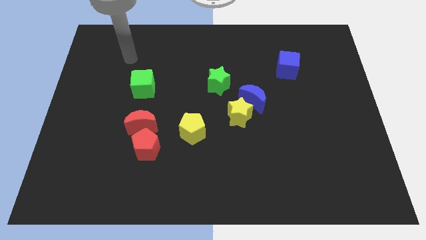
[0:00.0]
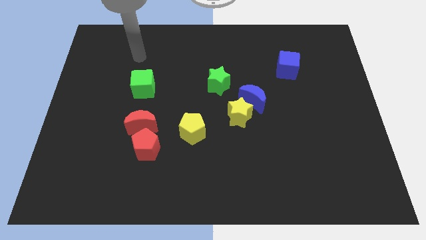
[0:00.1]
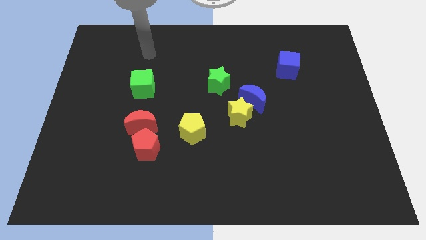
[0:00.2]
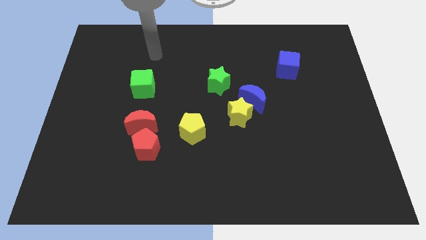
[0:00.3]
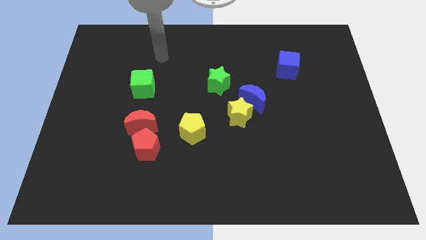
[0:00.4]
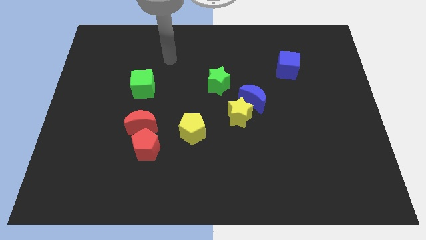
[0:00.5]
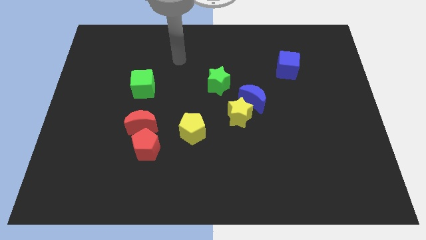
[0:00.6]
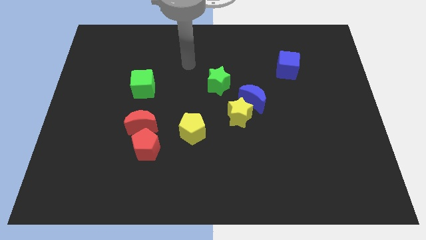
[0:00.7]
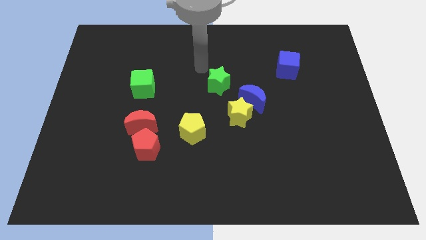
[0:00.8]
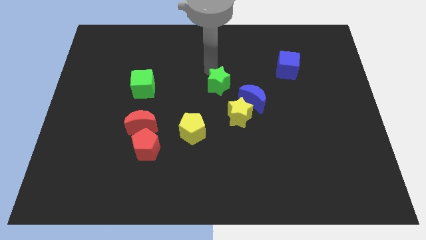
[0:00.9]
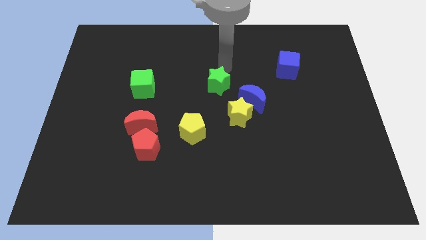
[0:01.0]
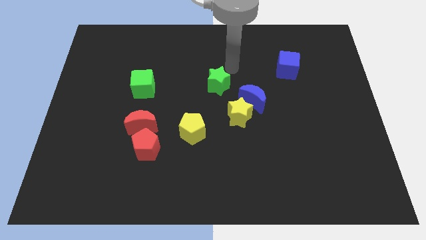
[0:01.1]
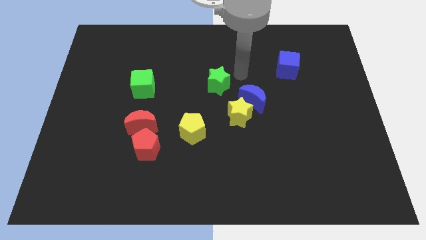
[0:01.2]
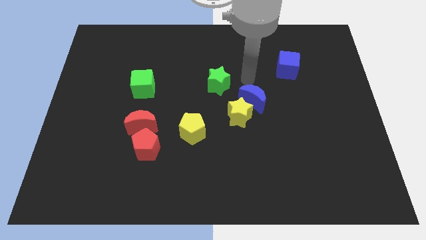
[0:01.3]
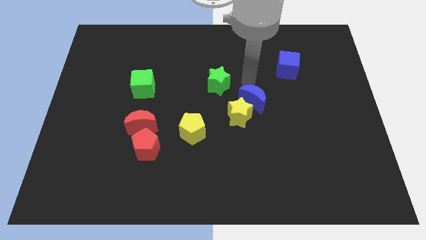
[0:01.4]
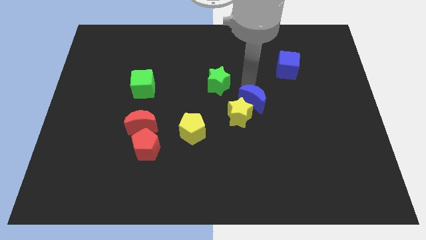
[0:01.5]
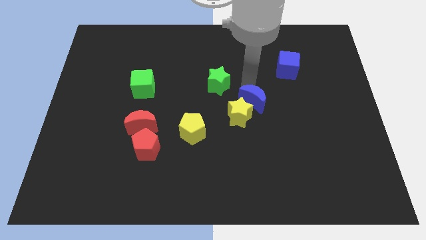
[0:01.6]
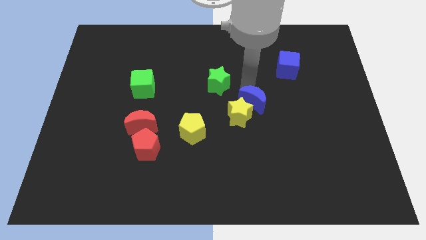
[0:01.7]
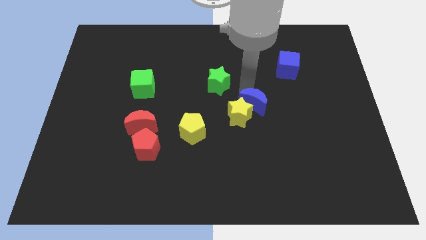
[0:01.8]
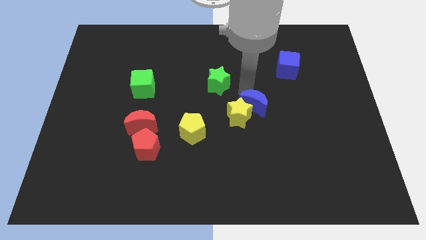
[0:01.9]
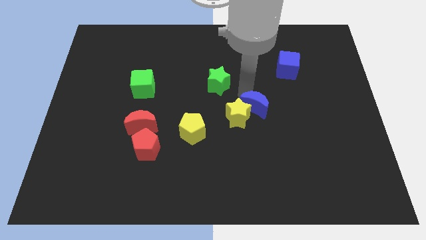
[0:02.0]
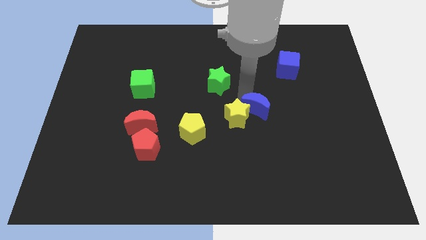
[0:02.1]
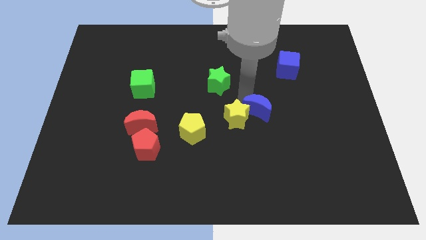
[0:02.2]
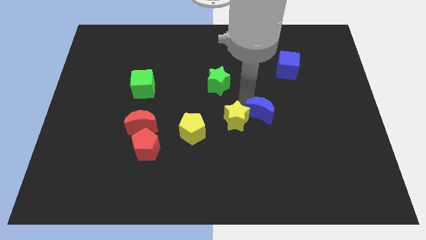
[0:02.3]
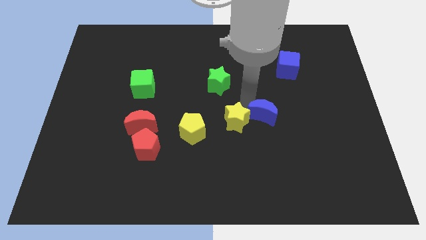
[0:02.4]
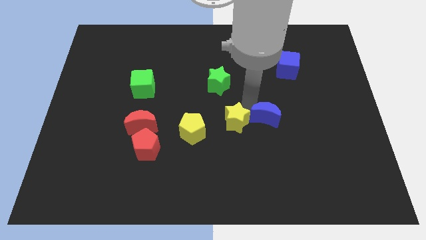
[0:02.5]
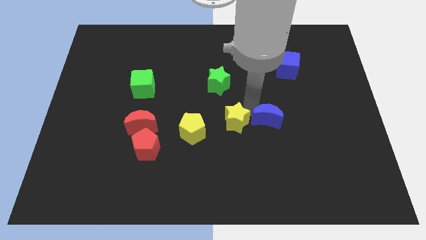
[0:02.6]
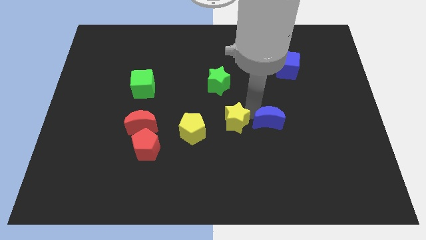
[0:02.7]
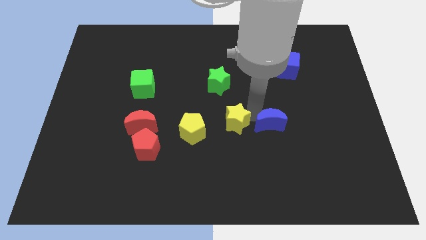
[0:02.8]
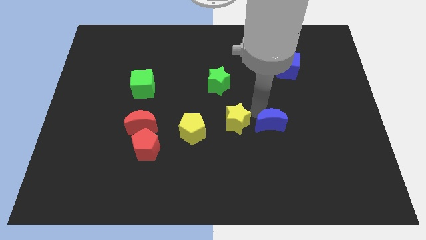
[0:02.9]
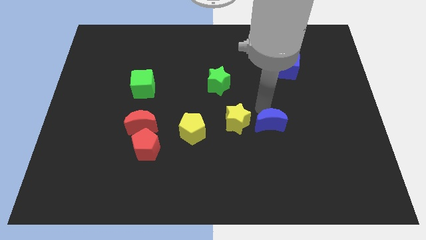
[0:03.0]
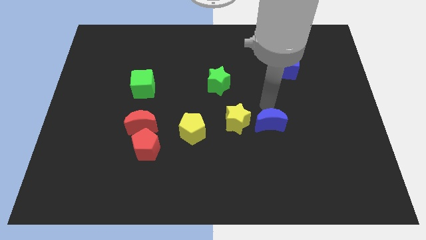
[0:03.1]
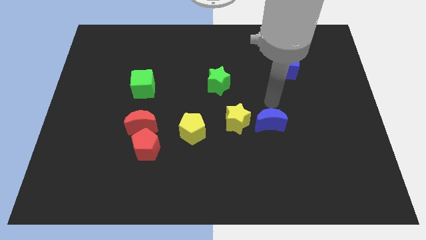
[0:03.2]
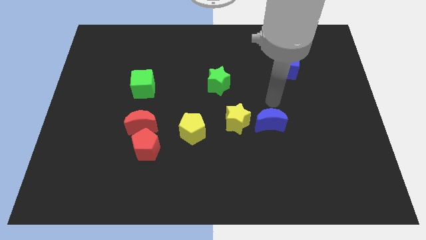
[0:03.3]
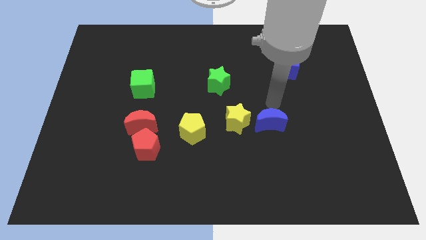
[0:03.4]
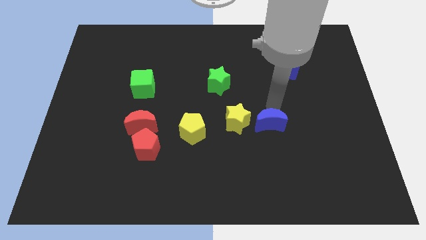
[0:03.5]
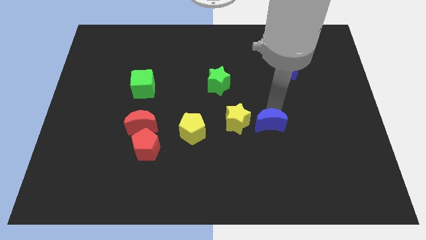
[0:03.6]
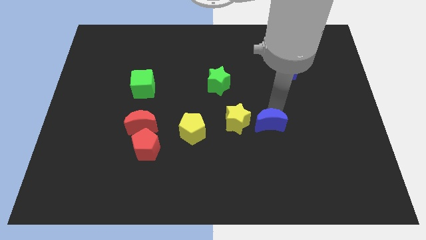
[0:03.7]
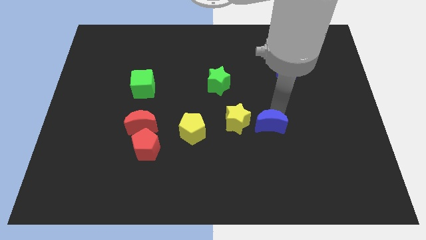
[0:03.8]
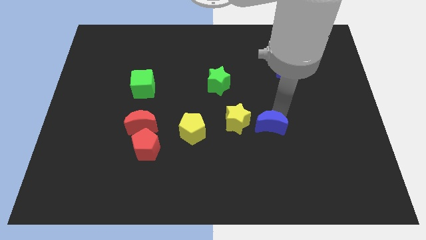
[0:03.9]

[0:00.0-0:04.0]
move the blue moon a little bit downwards

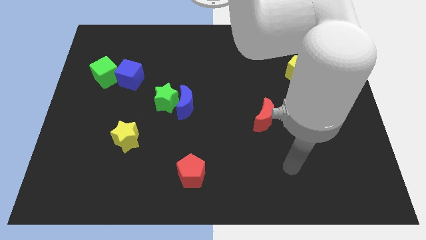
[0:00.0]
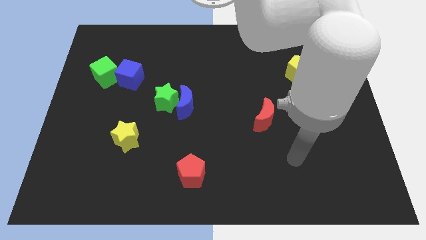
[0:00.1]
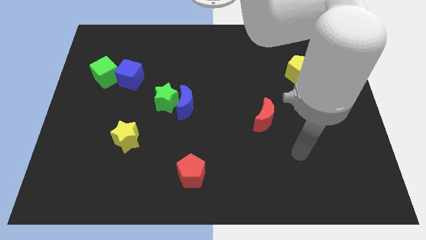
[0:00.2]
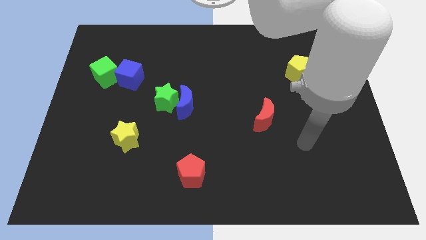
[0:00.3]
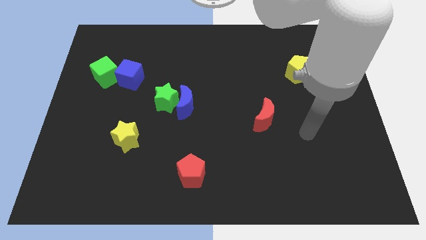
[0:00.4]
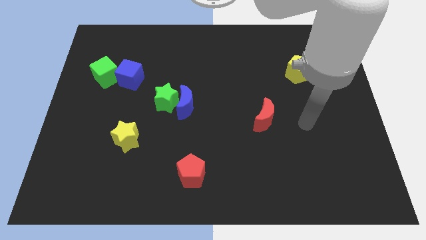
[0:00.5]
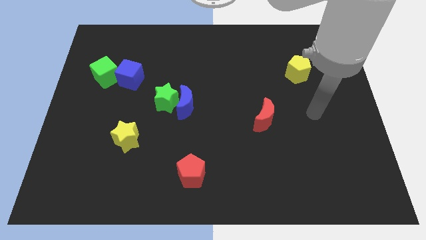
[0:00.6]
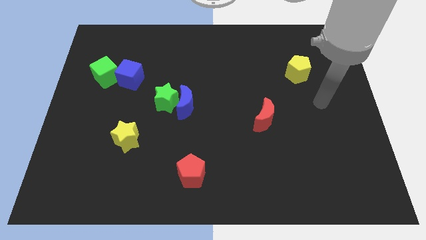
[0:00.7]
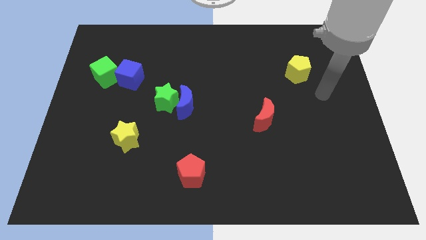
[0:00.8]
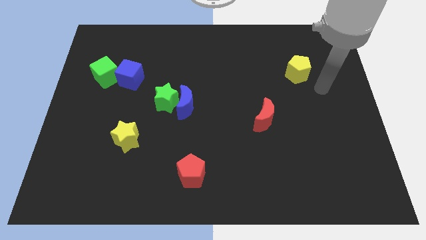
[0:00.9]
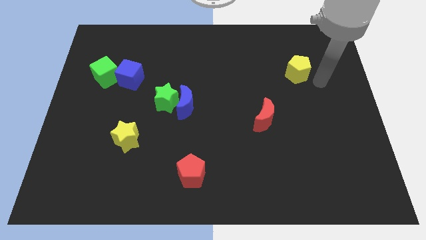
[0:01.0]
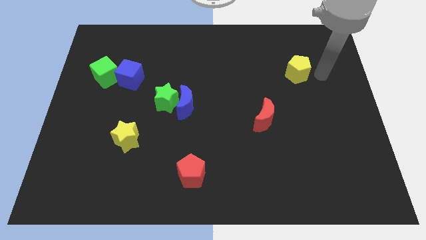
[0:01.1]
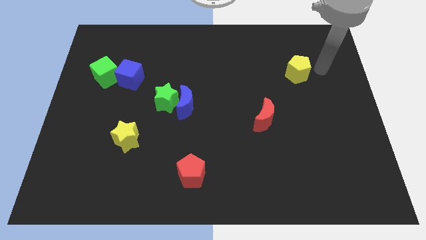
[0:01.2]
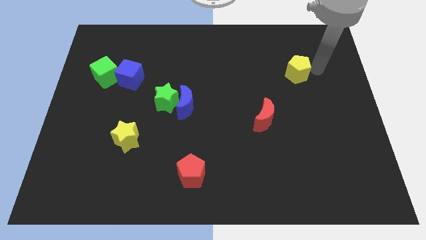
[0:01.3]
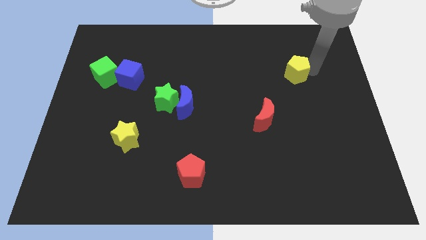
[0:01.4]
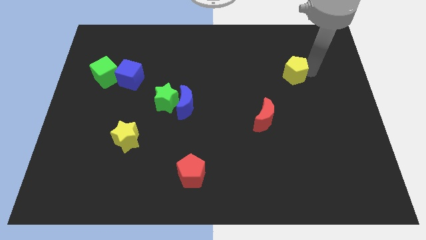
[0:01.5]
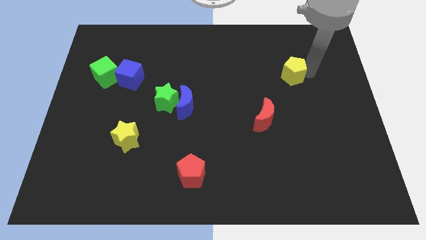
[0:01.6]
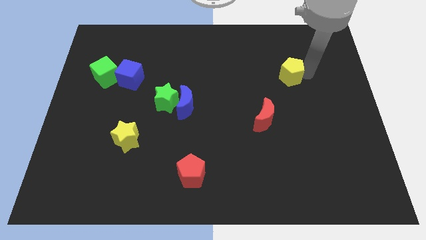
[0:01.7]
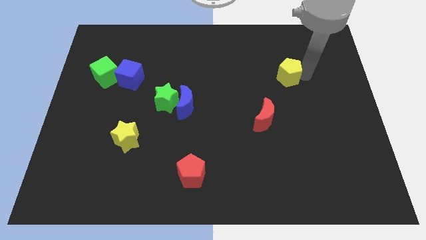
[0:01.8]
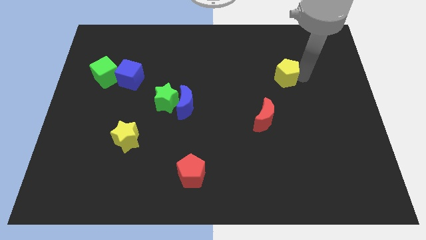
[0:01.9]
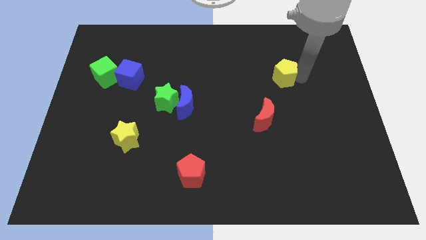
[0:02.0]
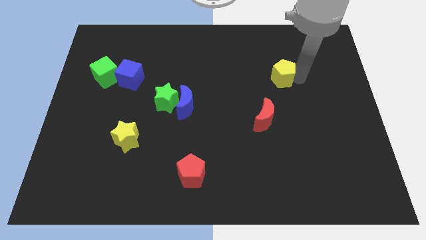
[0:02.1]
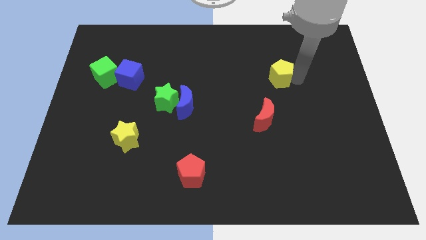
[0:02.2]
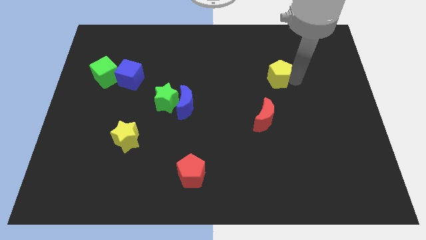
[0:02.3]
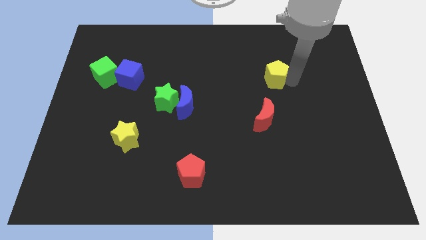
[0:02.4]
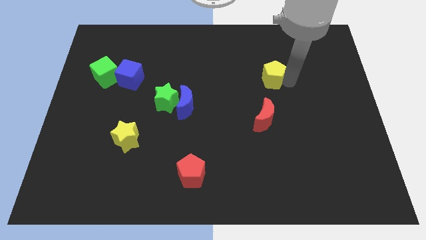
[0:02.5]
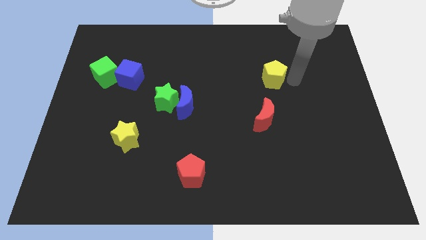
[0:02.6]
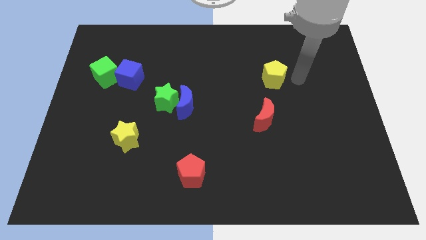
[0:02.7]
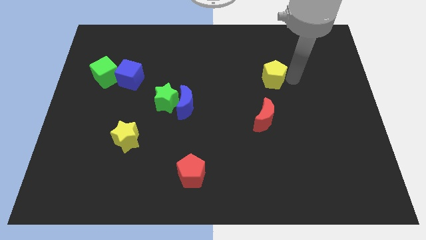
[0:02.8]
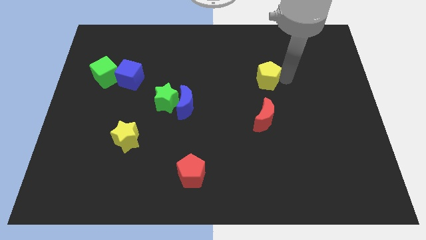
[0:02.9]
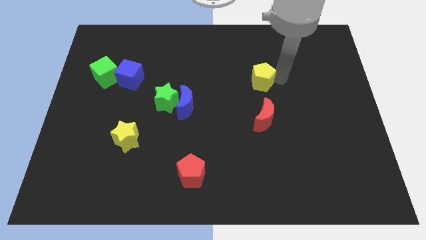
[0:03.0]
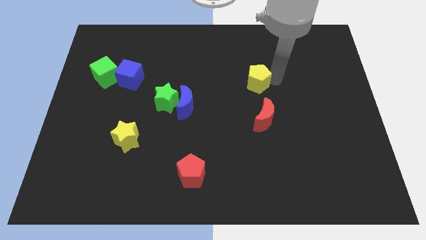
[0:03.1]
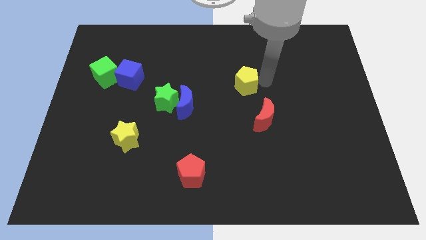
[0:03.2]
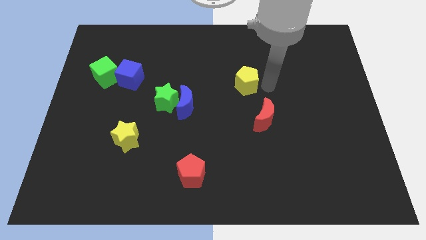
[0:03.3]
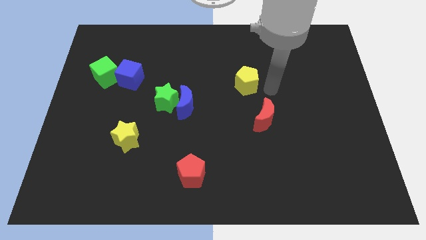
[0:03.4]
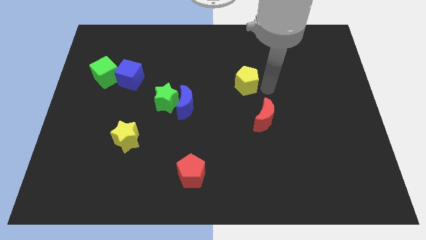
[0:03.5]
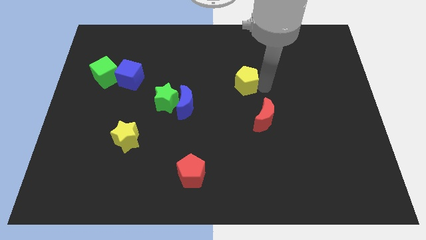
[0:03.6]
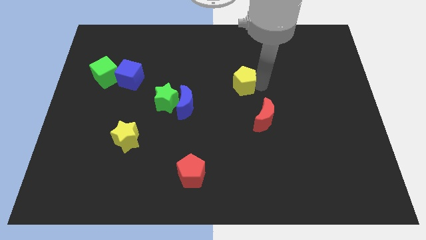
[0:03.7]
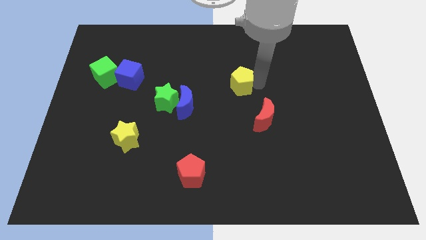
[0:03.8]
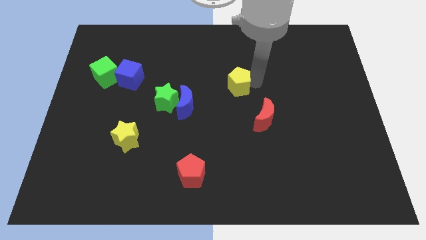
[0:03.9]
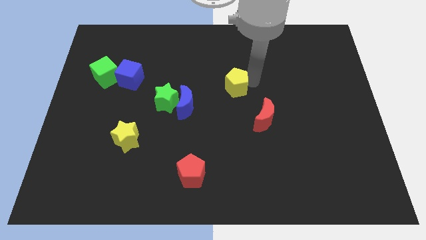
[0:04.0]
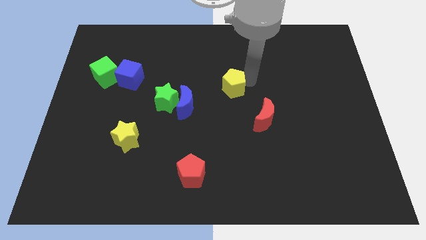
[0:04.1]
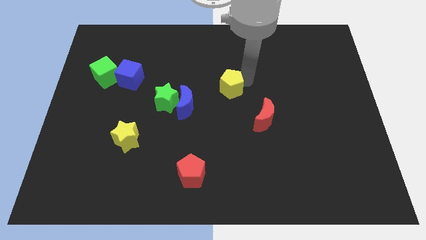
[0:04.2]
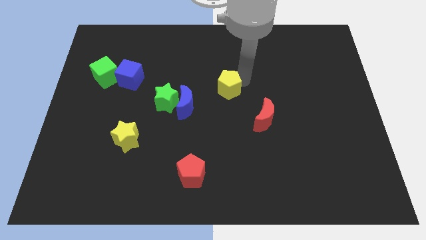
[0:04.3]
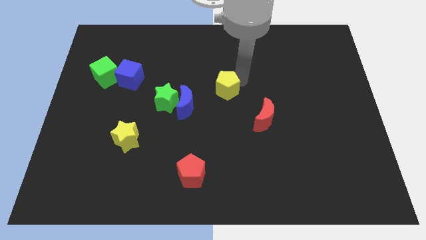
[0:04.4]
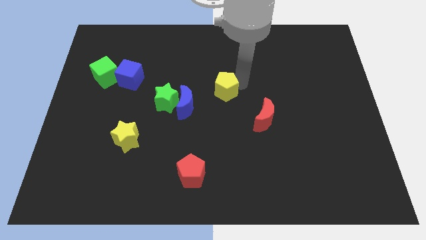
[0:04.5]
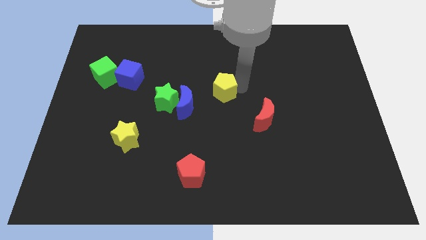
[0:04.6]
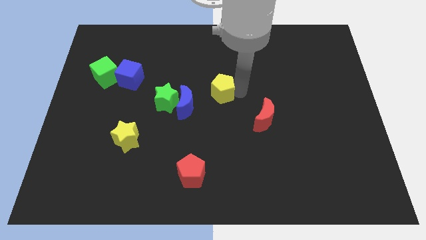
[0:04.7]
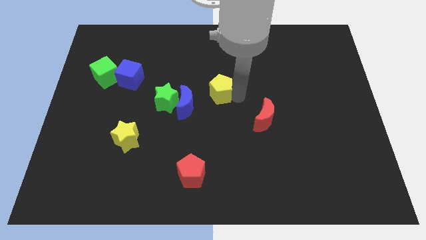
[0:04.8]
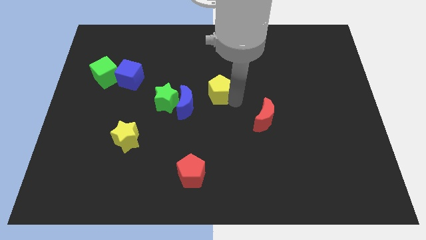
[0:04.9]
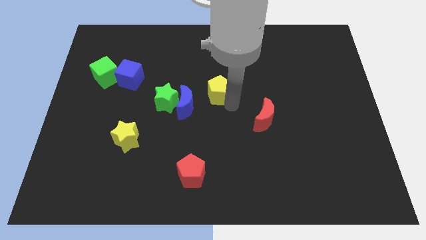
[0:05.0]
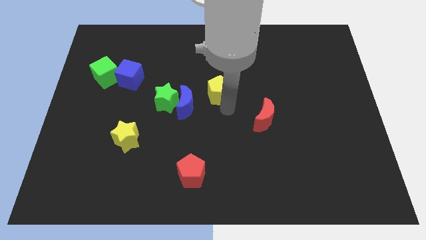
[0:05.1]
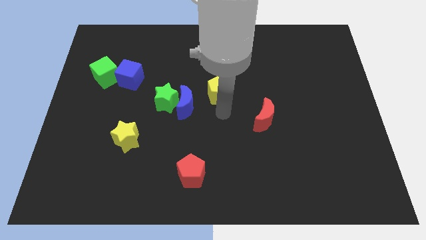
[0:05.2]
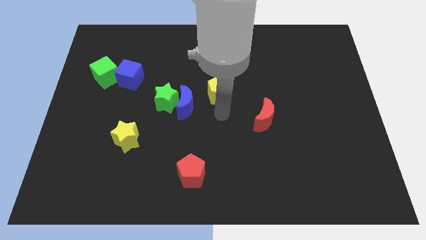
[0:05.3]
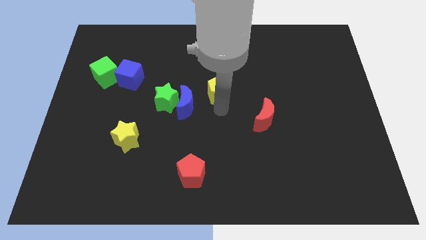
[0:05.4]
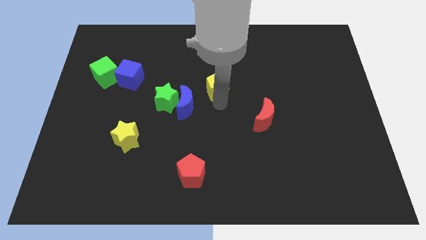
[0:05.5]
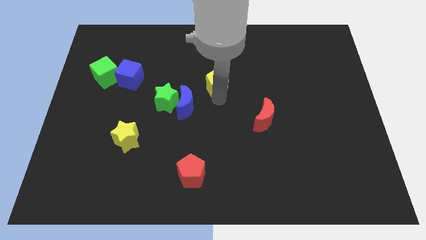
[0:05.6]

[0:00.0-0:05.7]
move the yellow pentagon to the left
